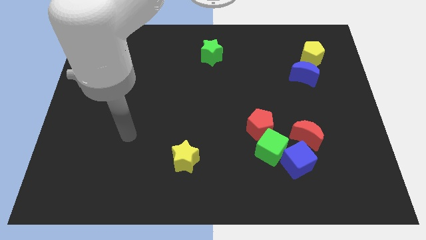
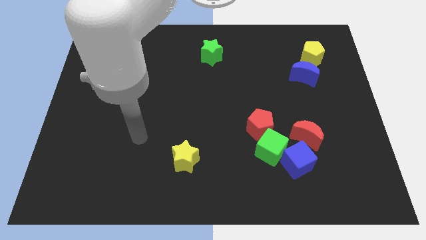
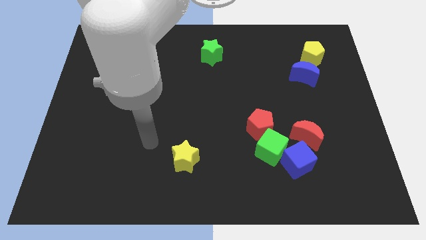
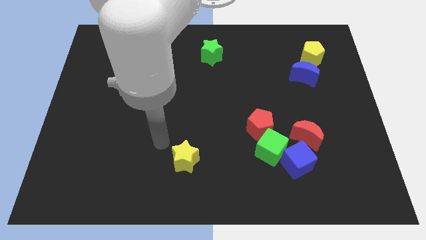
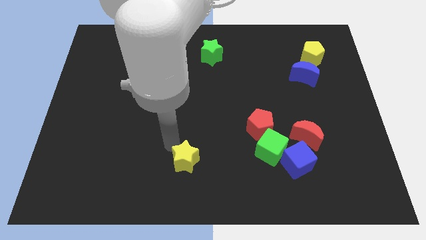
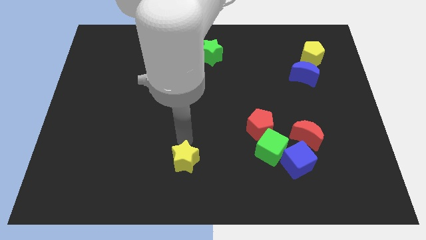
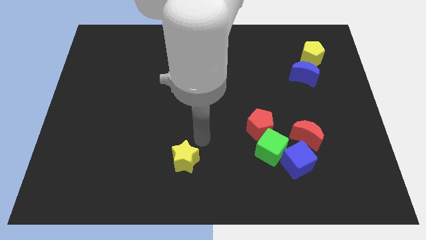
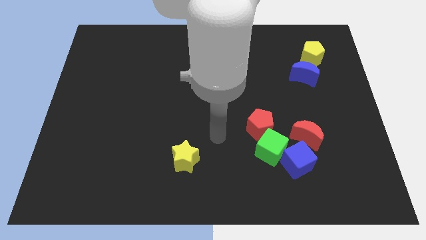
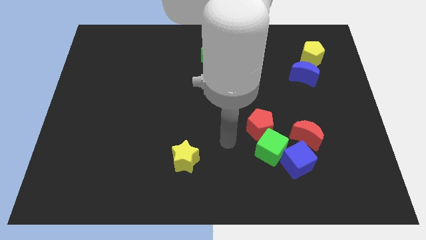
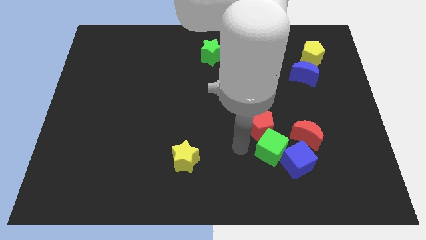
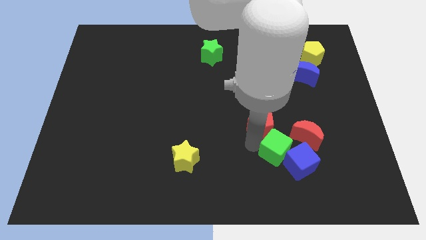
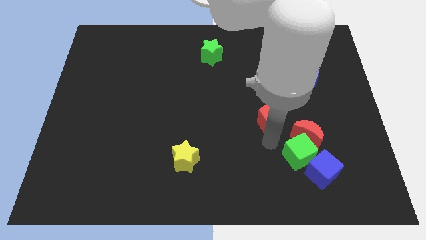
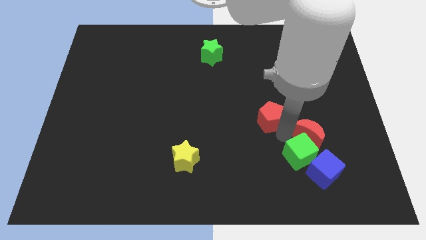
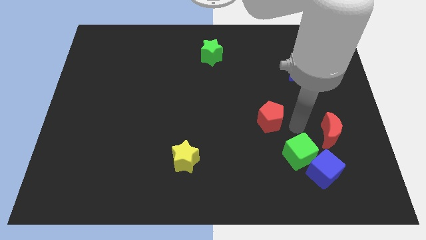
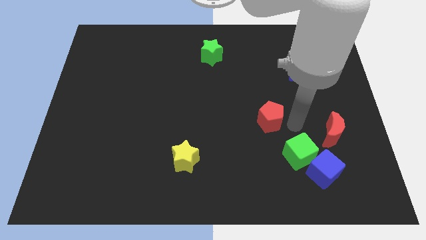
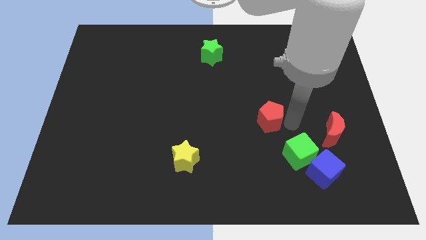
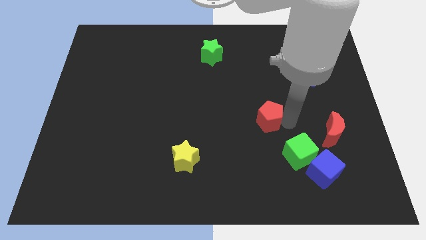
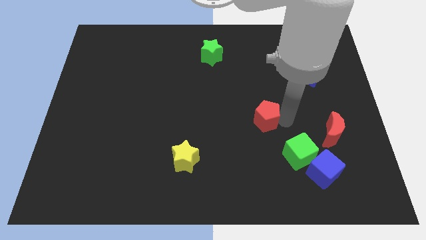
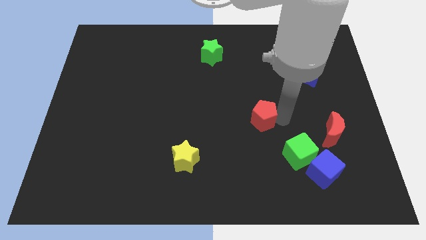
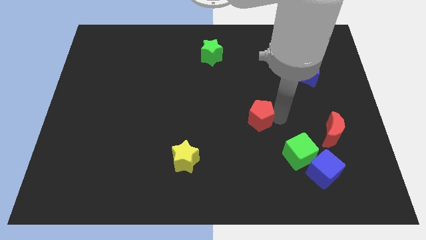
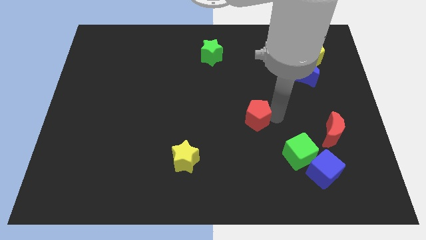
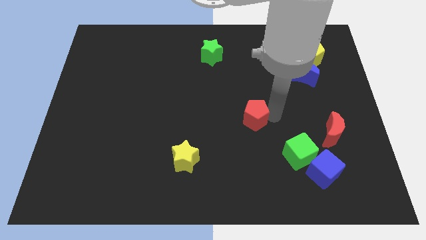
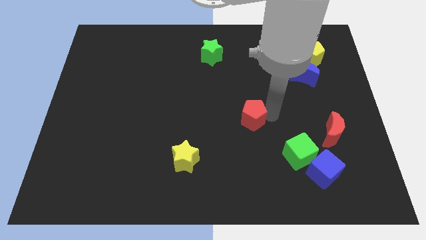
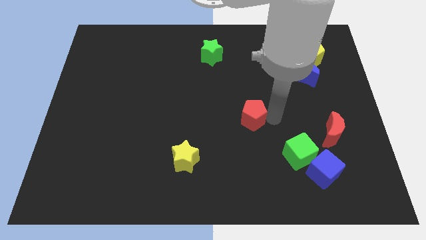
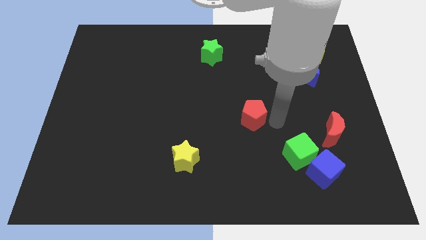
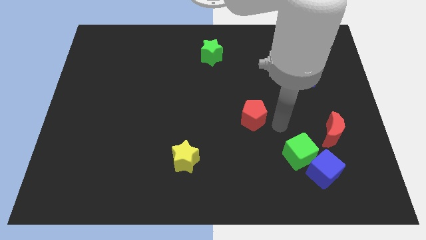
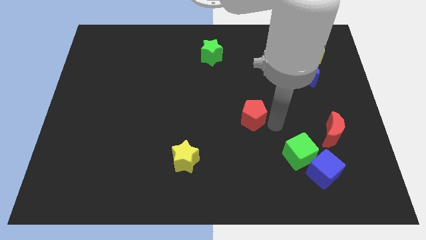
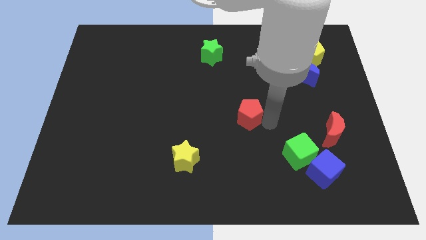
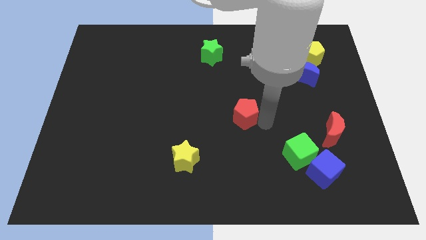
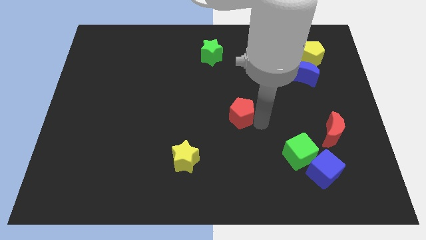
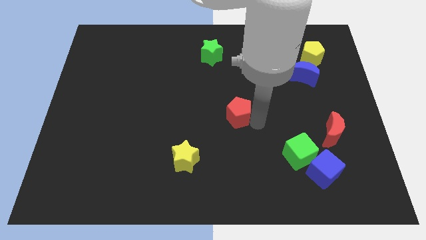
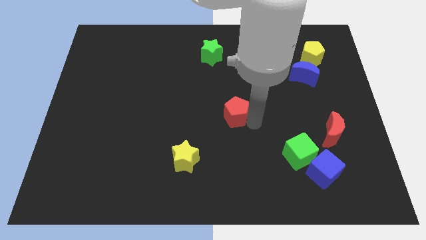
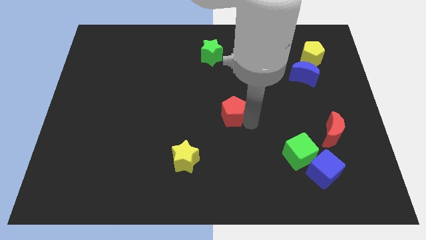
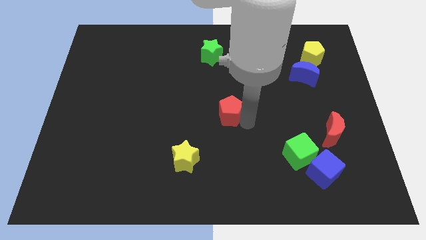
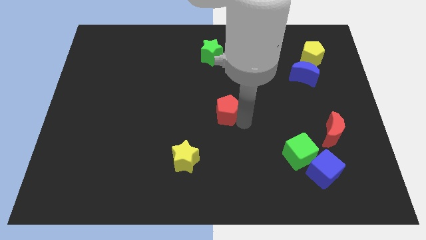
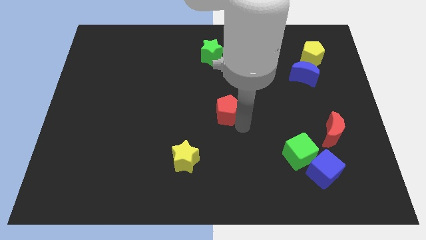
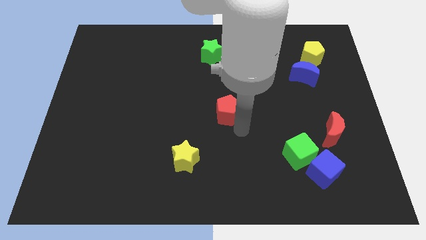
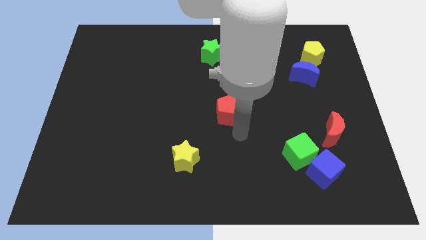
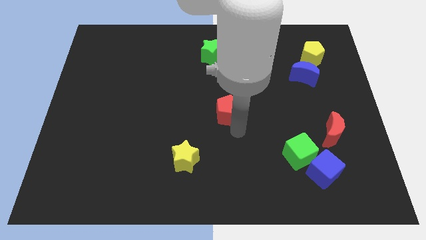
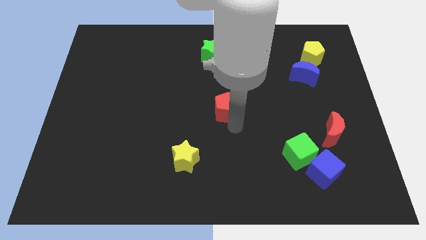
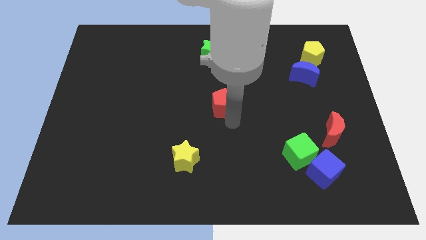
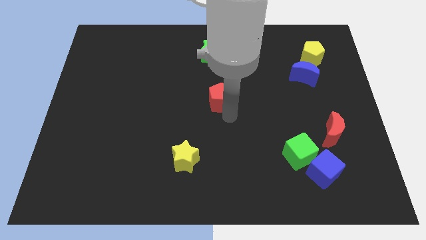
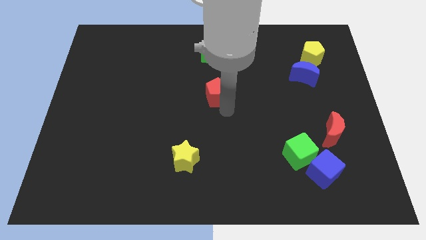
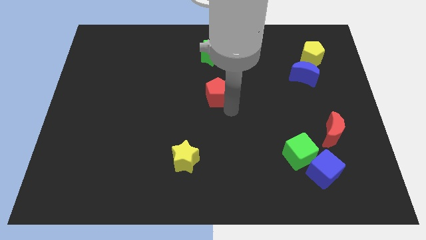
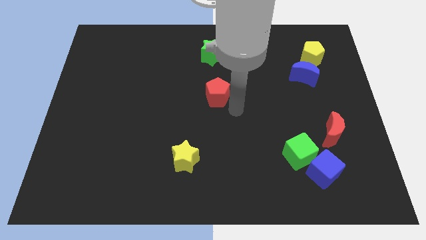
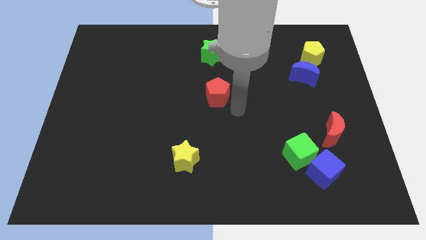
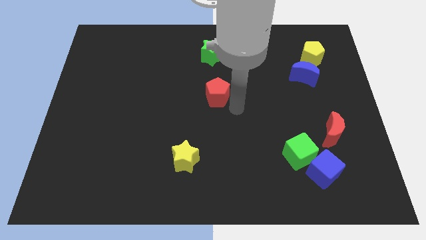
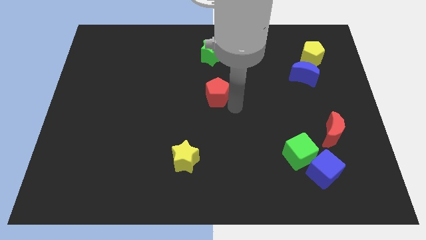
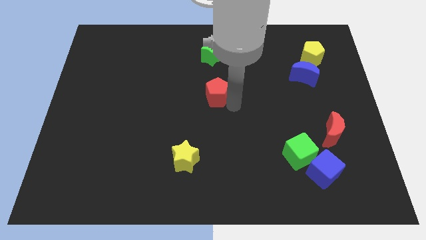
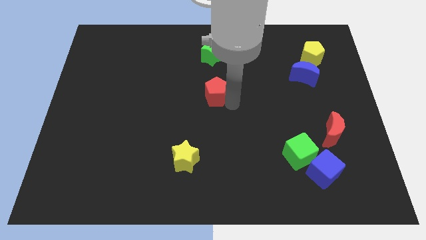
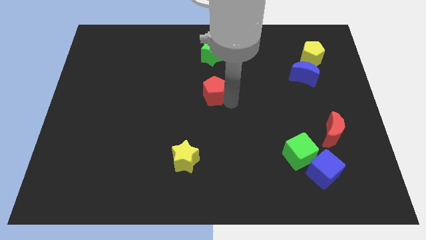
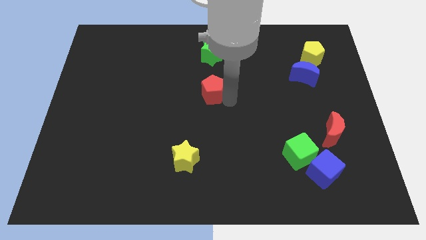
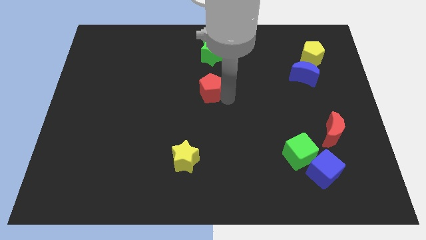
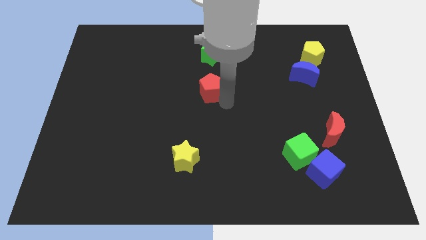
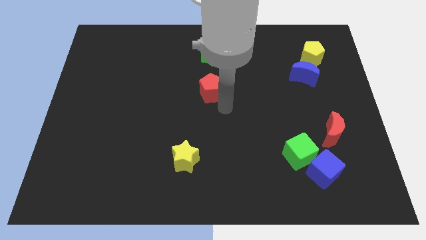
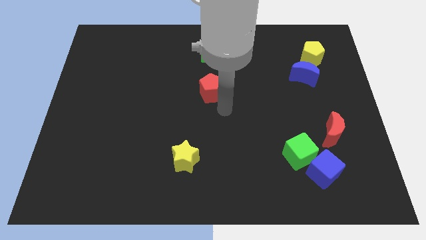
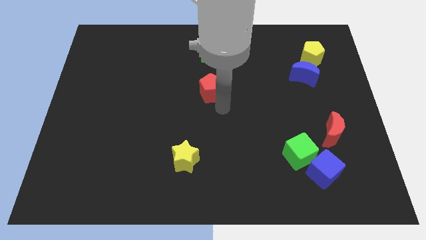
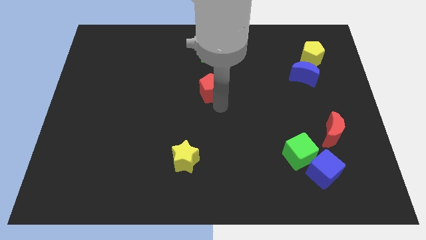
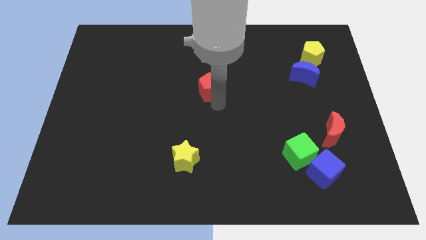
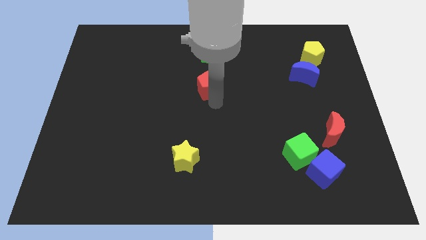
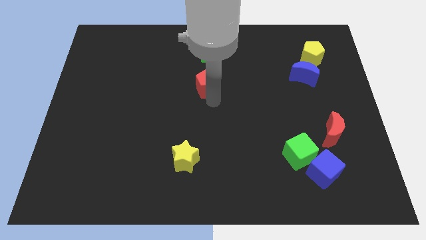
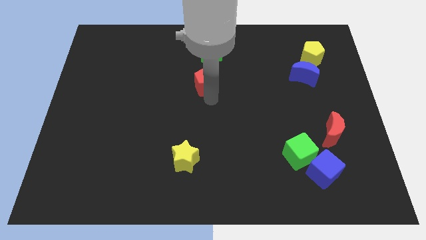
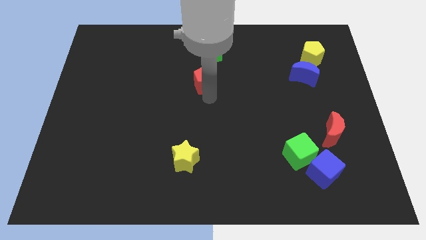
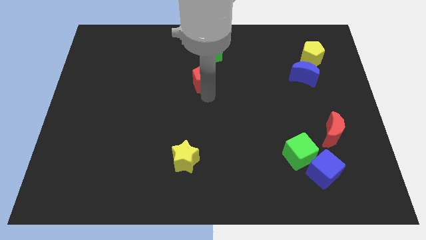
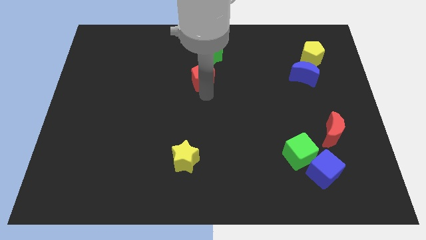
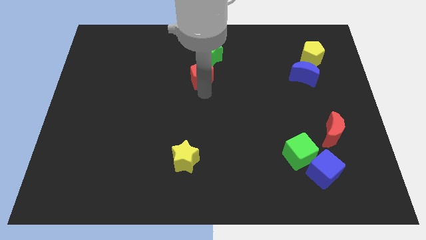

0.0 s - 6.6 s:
slide the red pentagon upwards and to the left diagonally

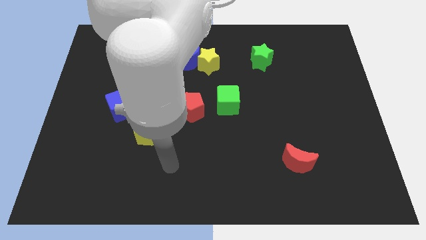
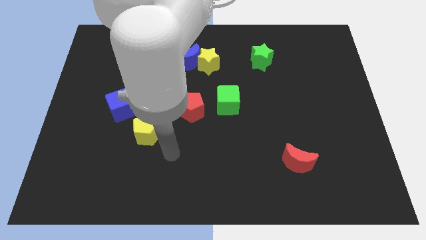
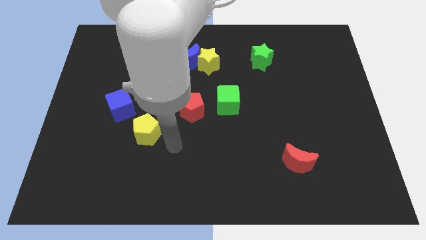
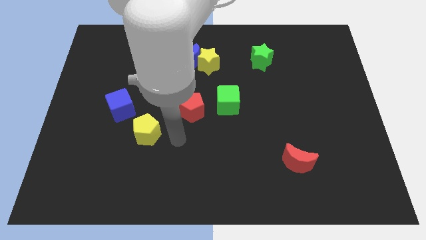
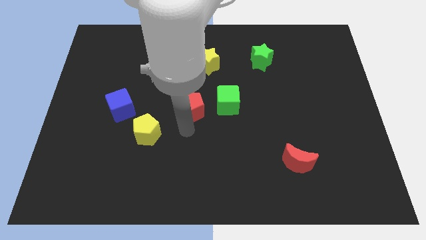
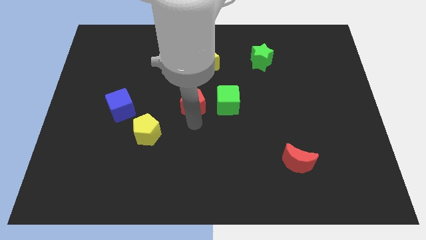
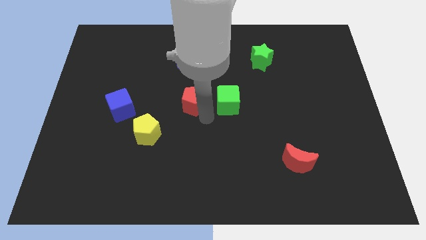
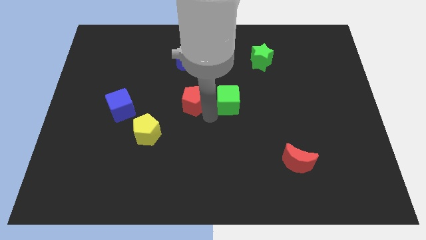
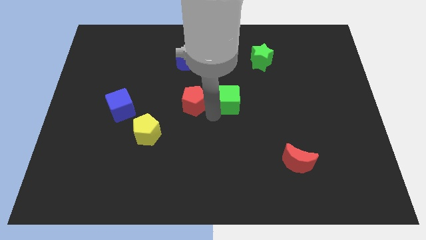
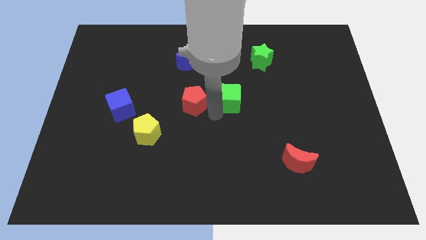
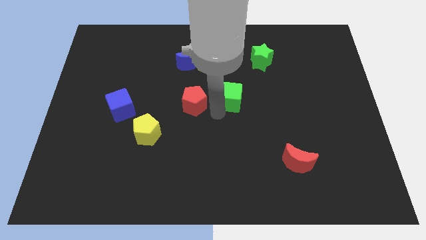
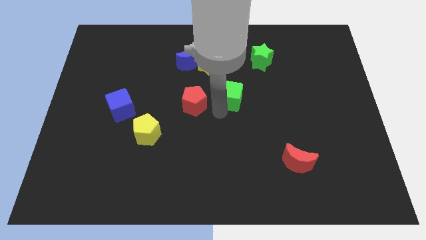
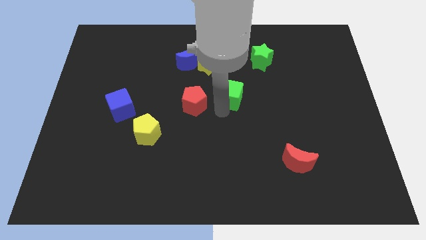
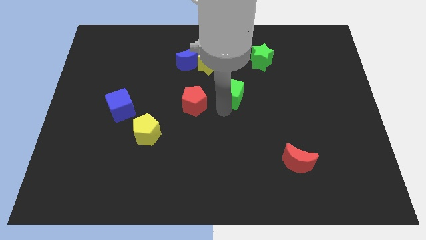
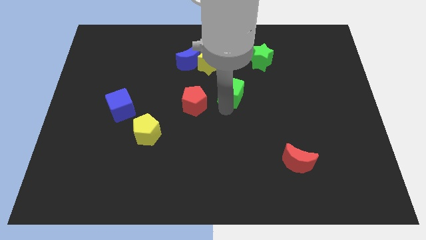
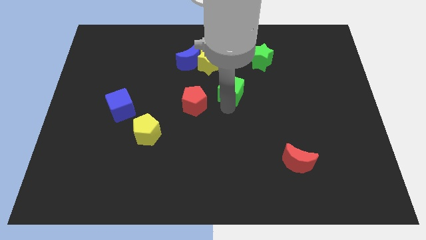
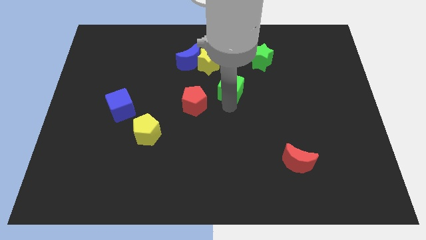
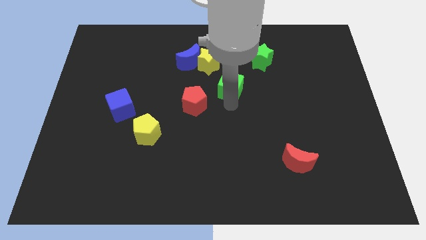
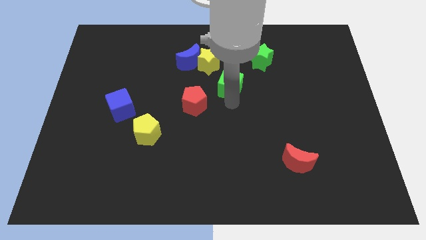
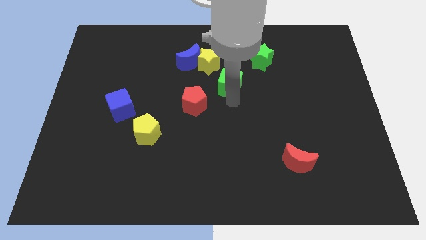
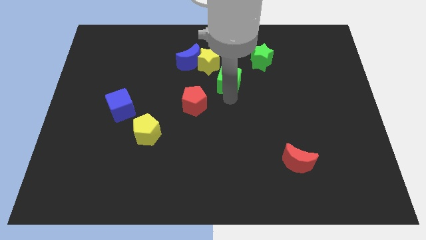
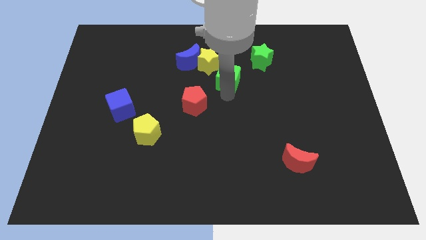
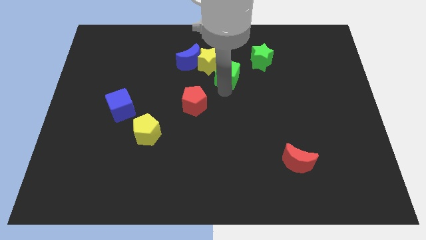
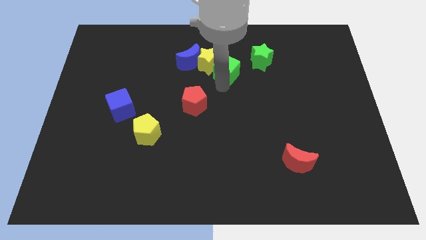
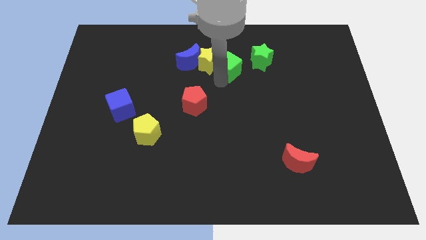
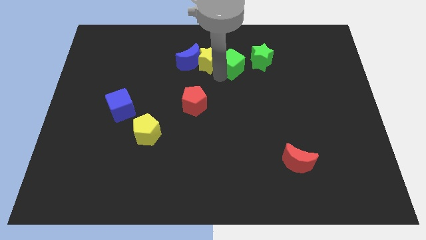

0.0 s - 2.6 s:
push the green cube up and to the right diagonally somewhat
